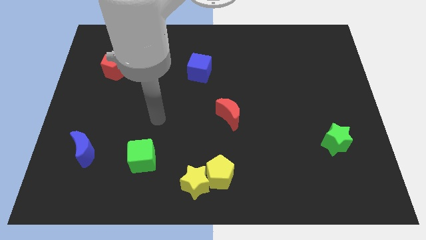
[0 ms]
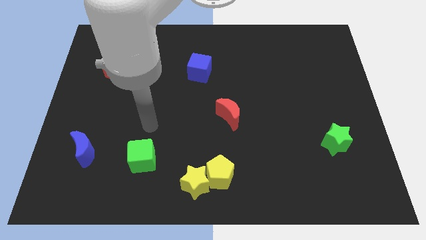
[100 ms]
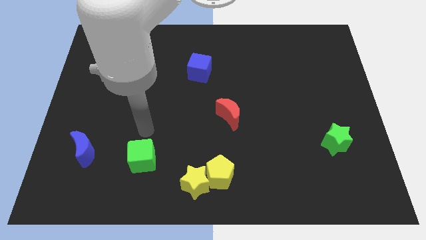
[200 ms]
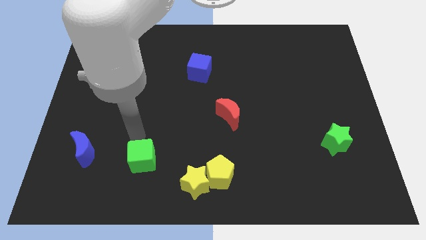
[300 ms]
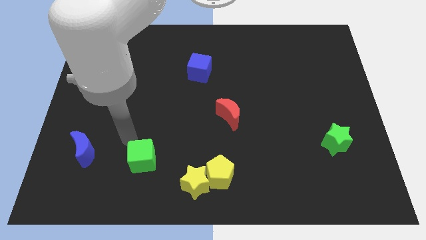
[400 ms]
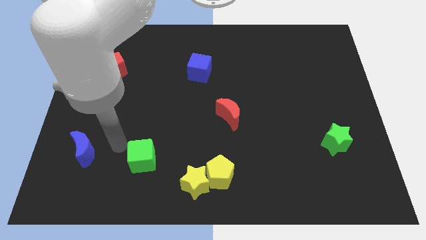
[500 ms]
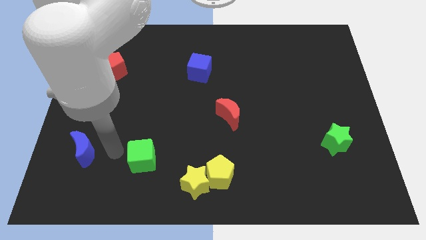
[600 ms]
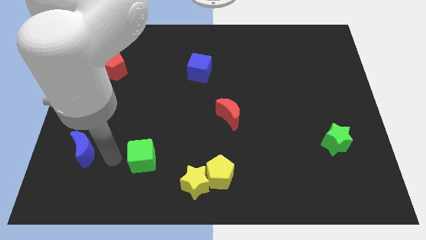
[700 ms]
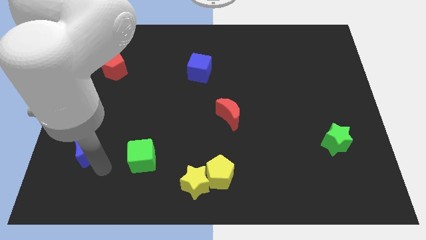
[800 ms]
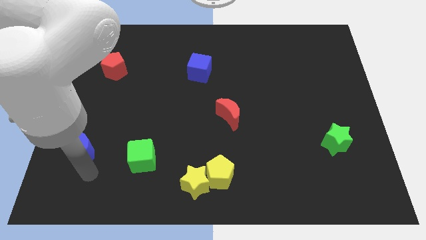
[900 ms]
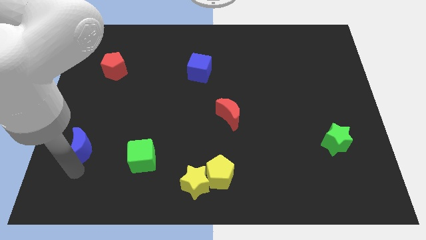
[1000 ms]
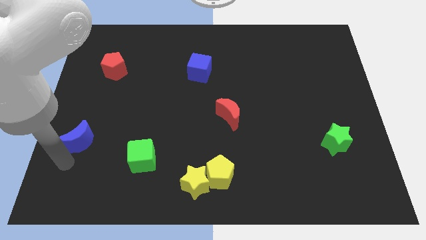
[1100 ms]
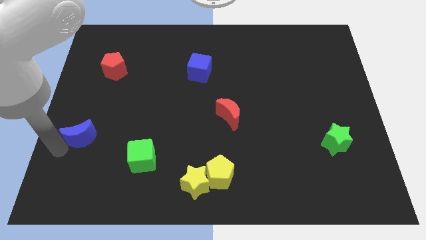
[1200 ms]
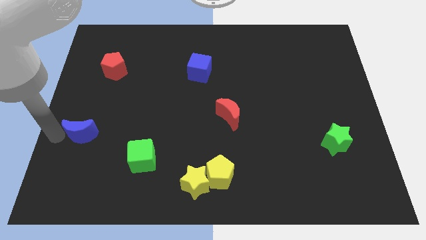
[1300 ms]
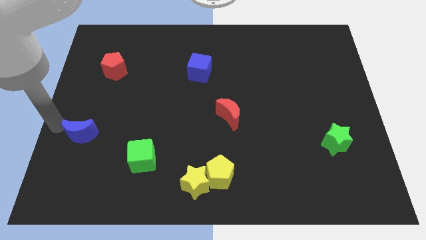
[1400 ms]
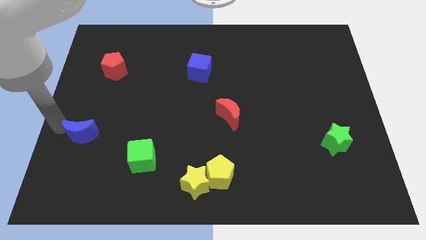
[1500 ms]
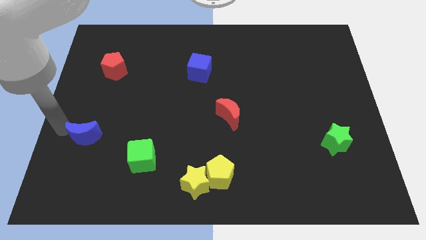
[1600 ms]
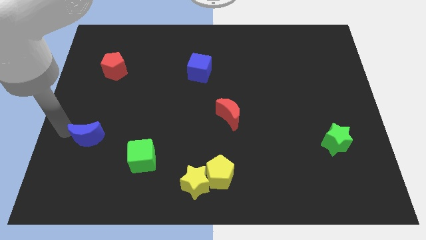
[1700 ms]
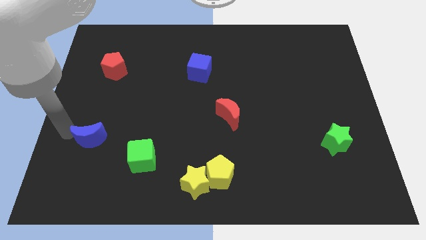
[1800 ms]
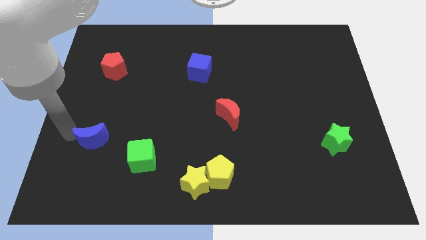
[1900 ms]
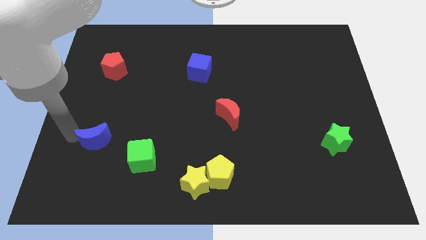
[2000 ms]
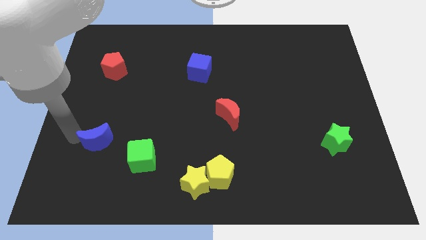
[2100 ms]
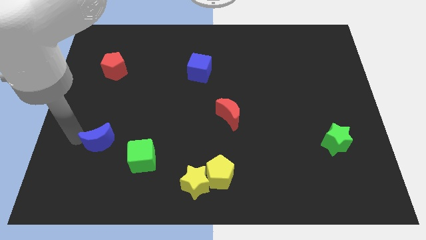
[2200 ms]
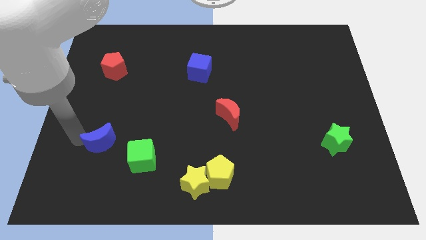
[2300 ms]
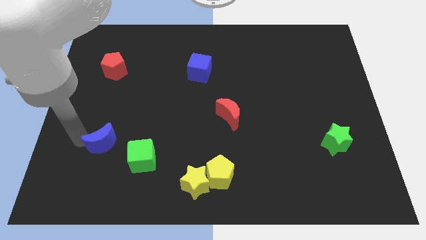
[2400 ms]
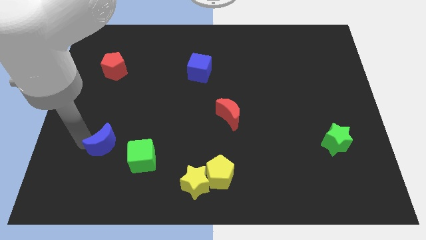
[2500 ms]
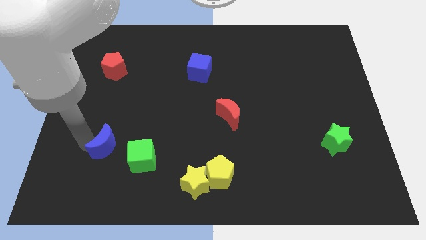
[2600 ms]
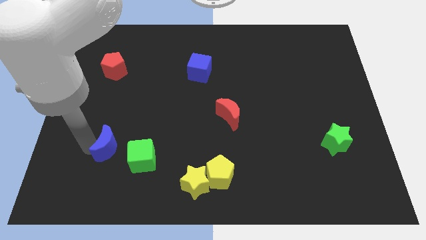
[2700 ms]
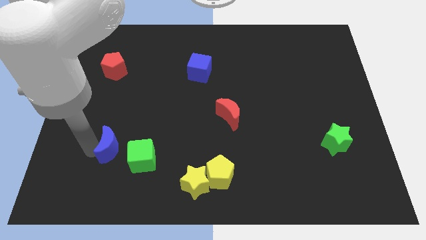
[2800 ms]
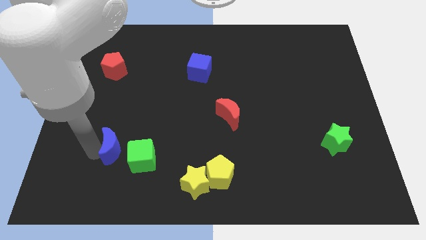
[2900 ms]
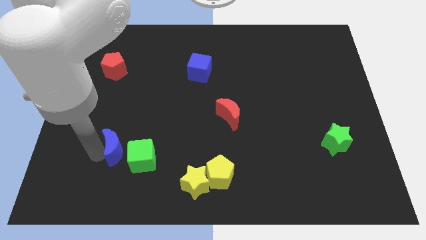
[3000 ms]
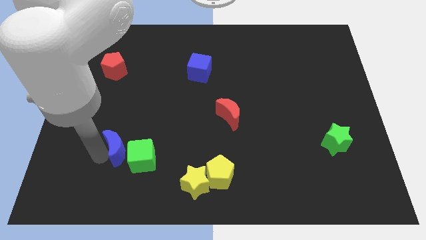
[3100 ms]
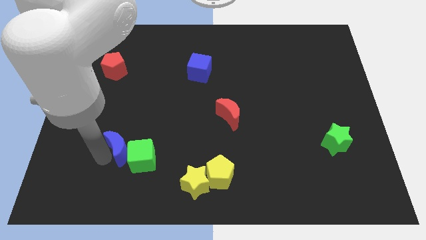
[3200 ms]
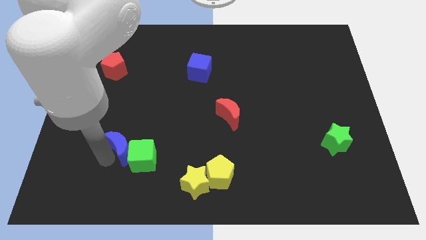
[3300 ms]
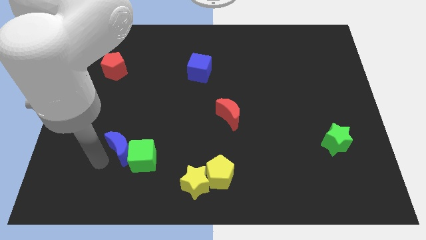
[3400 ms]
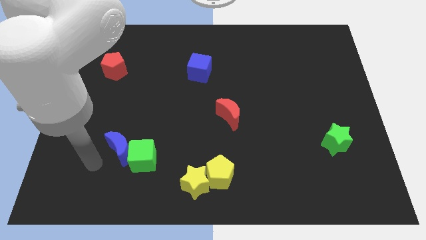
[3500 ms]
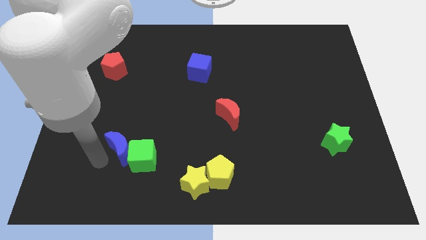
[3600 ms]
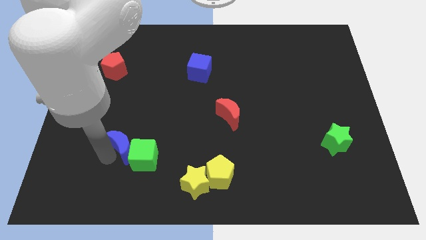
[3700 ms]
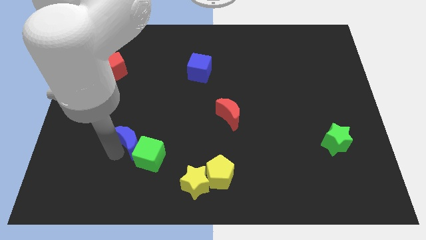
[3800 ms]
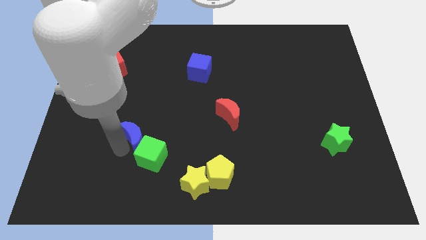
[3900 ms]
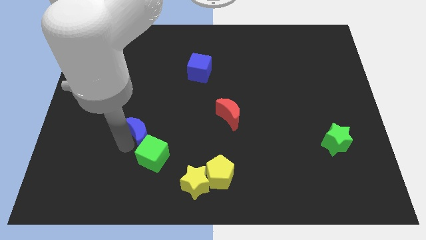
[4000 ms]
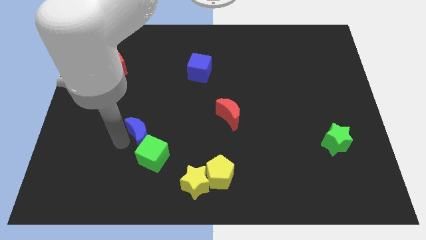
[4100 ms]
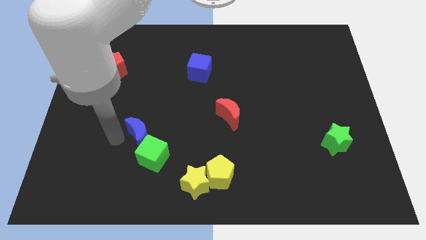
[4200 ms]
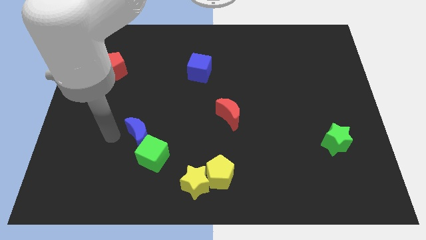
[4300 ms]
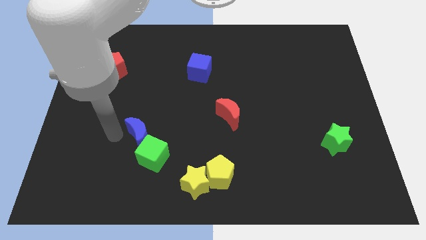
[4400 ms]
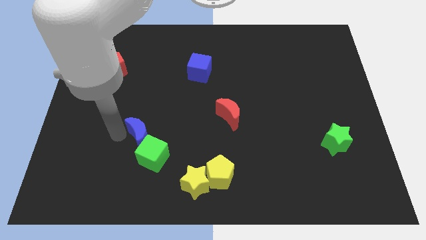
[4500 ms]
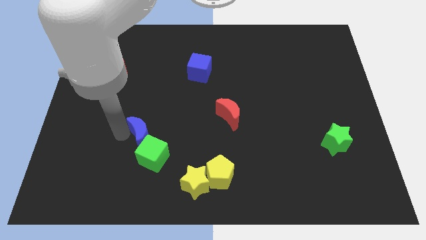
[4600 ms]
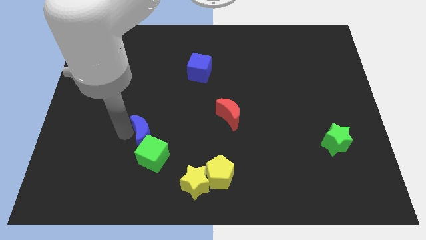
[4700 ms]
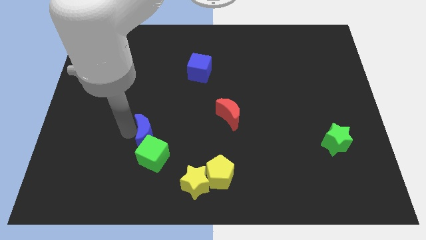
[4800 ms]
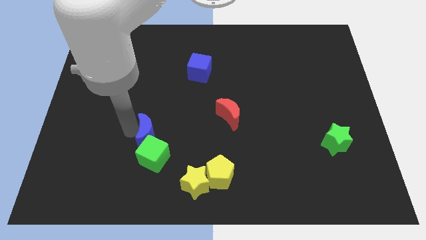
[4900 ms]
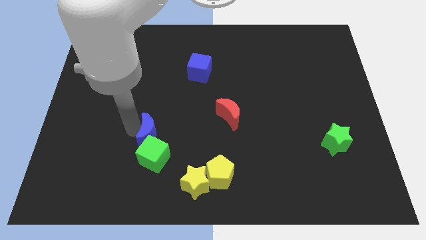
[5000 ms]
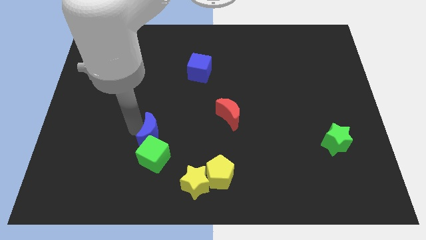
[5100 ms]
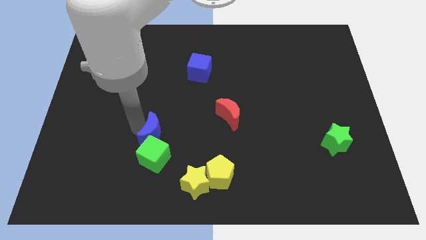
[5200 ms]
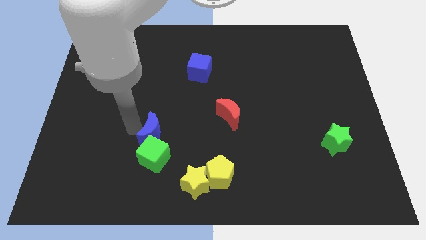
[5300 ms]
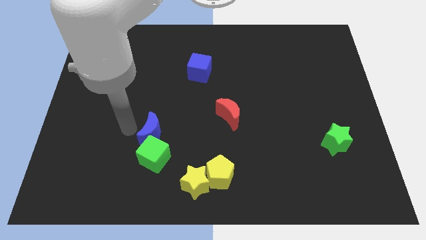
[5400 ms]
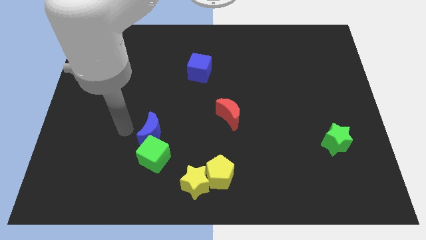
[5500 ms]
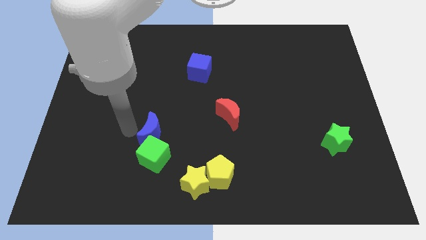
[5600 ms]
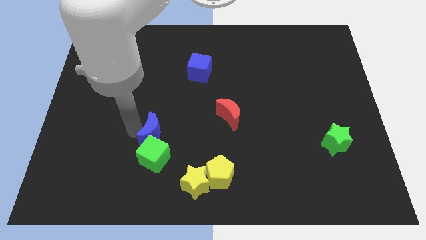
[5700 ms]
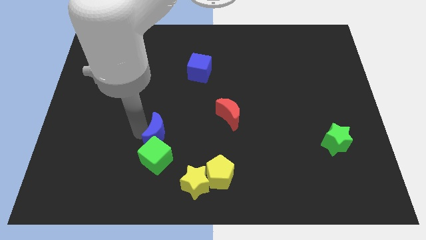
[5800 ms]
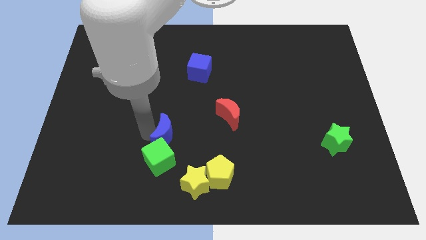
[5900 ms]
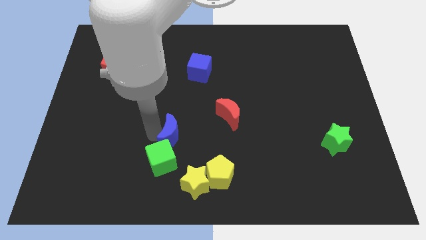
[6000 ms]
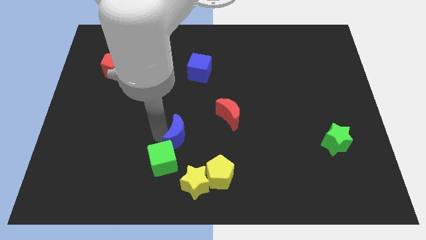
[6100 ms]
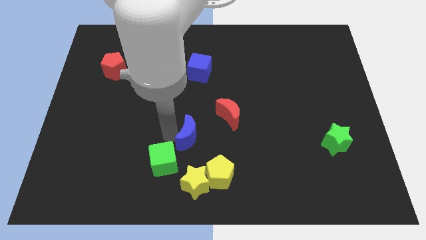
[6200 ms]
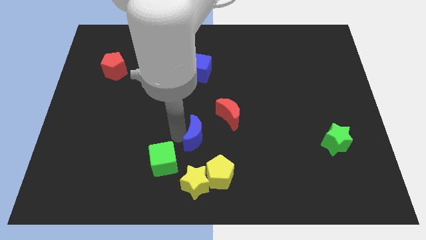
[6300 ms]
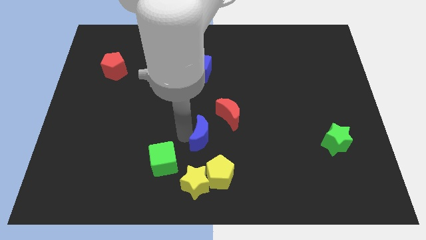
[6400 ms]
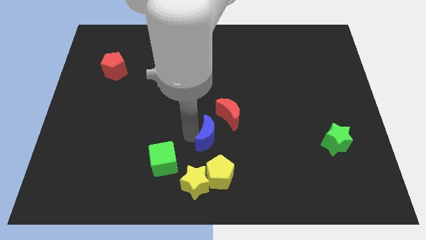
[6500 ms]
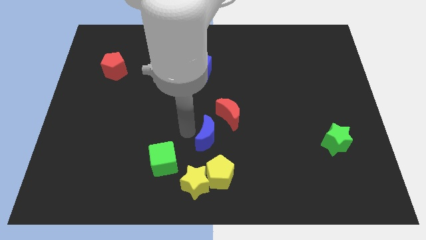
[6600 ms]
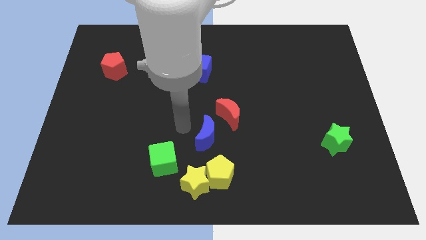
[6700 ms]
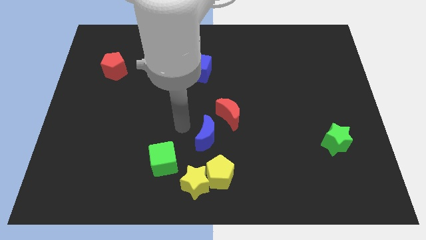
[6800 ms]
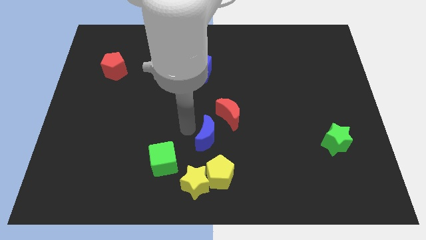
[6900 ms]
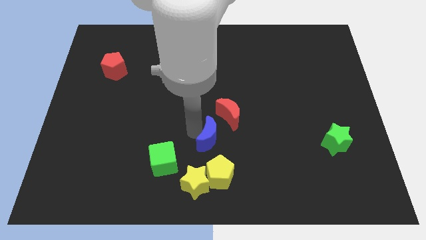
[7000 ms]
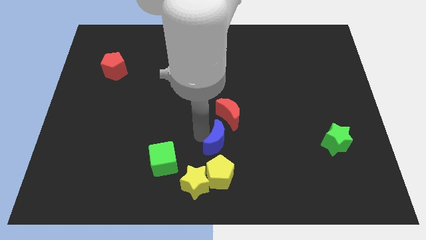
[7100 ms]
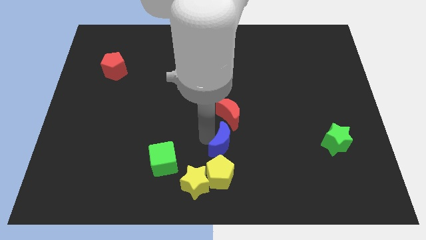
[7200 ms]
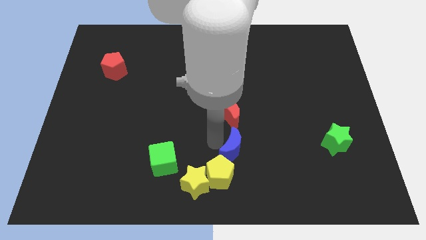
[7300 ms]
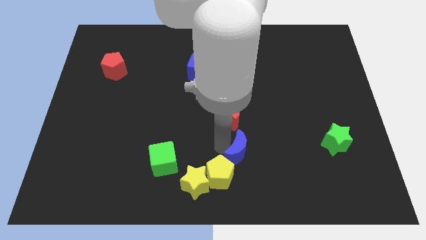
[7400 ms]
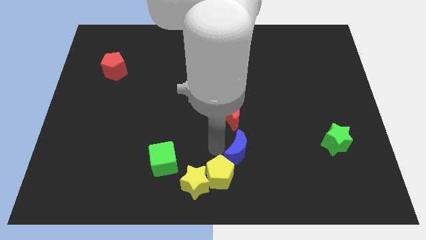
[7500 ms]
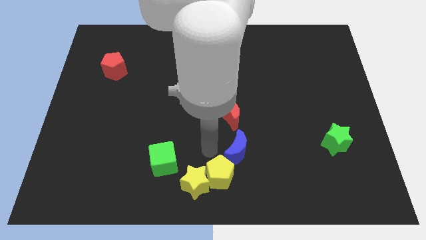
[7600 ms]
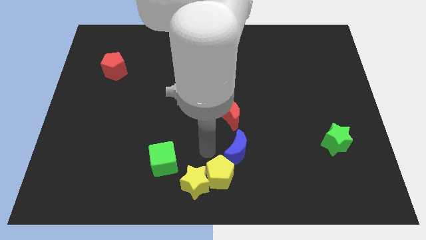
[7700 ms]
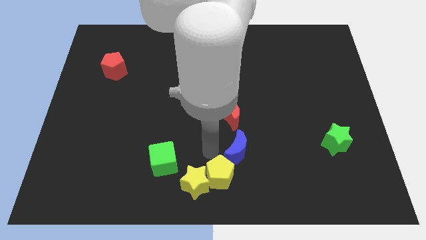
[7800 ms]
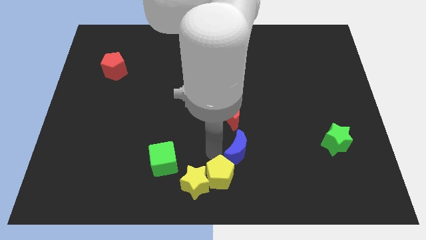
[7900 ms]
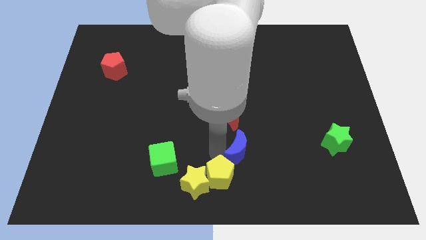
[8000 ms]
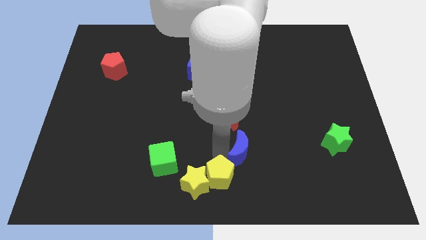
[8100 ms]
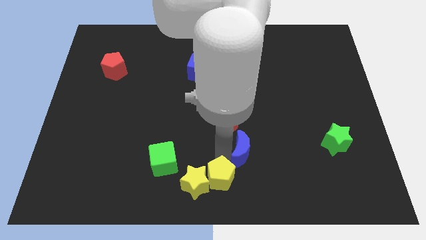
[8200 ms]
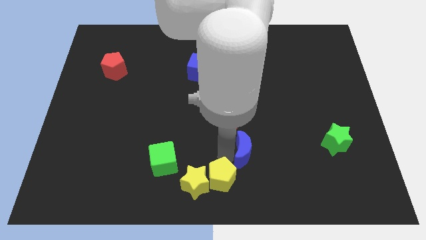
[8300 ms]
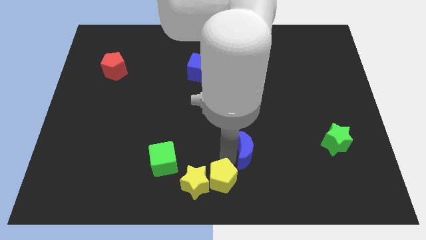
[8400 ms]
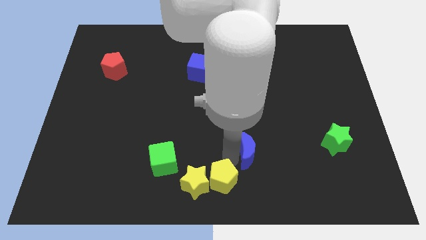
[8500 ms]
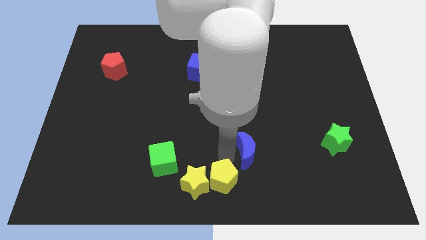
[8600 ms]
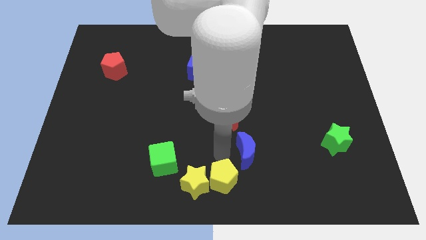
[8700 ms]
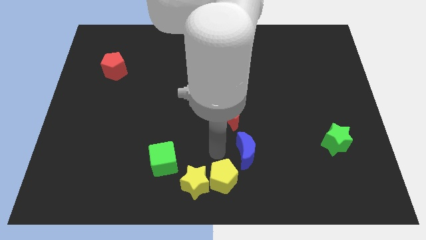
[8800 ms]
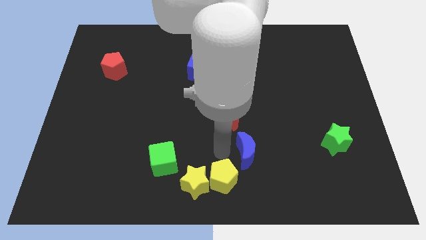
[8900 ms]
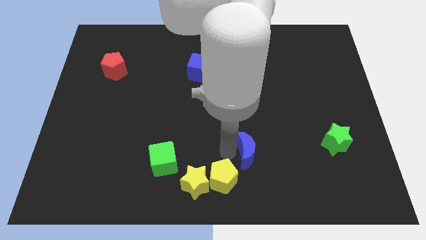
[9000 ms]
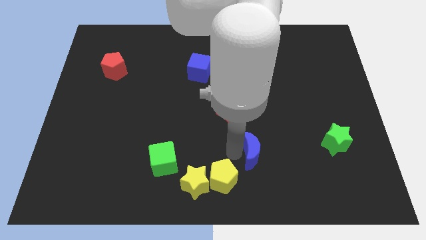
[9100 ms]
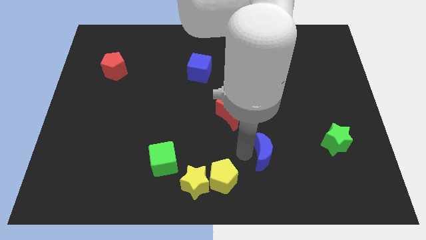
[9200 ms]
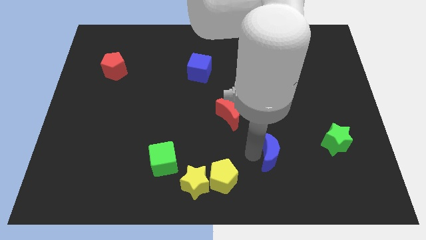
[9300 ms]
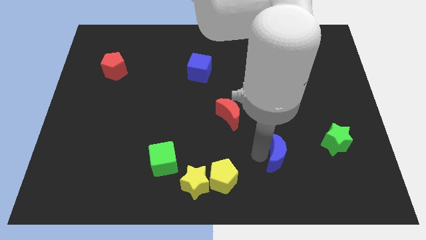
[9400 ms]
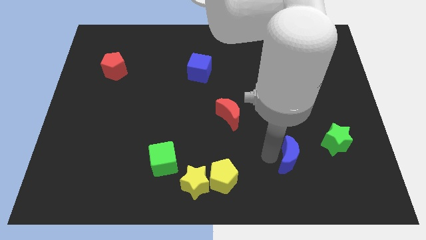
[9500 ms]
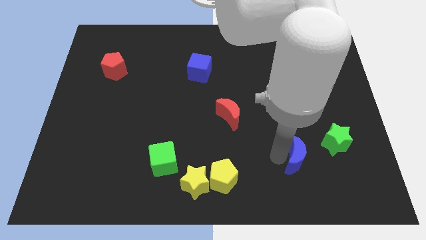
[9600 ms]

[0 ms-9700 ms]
push the blue moon to the bottom left of the green star
